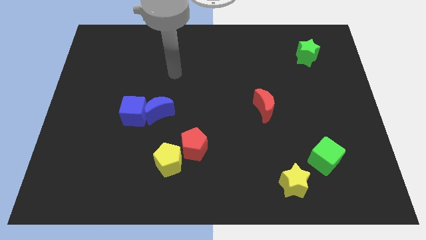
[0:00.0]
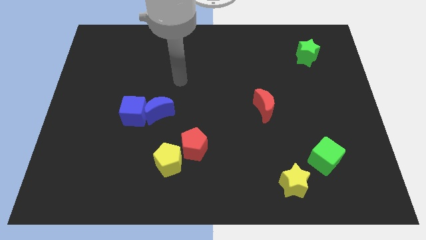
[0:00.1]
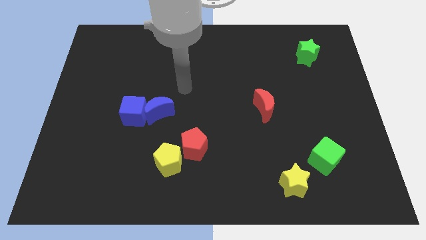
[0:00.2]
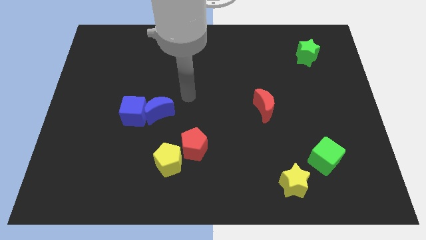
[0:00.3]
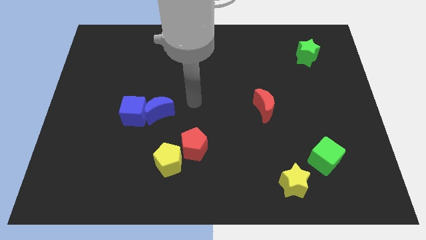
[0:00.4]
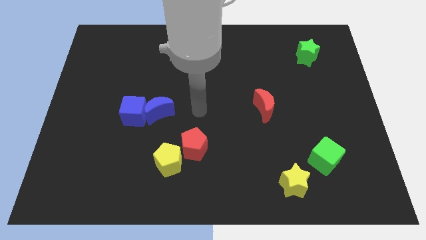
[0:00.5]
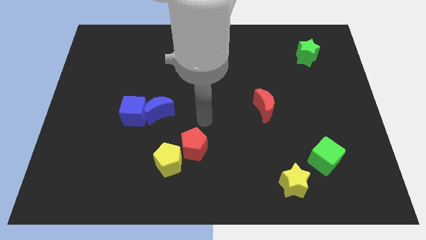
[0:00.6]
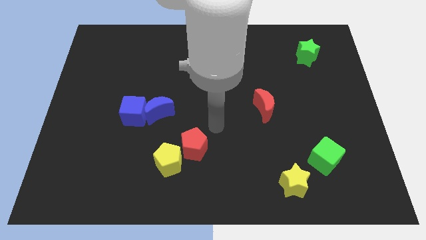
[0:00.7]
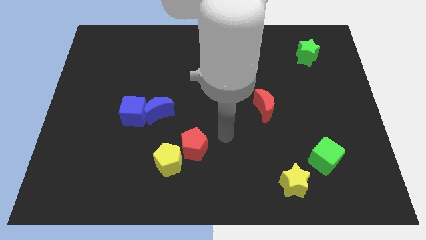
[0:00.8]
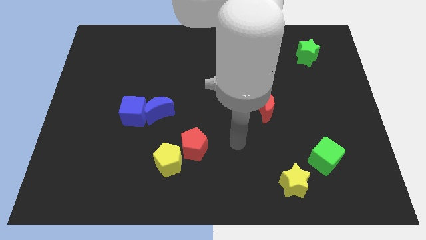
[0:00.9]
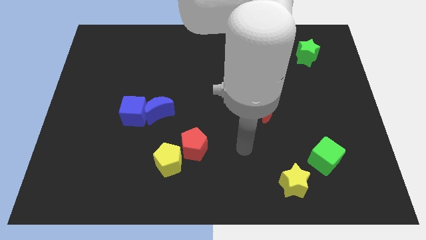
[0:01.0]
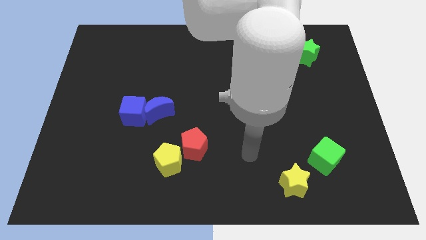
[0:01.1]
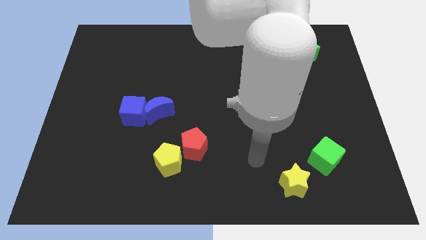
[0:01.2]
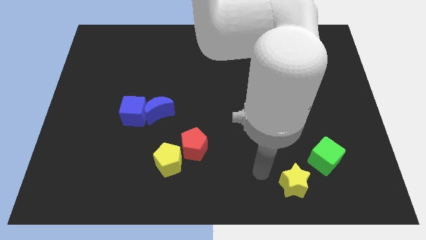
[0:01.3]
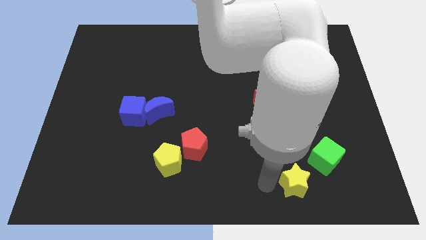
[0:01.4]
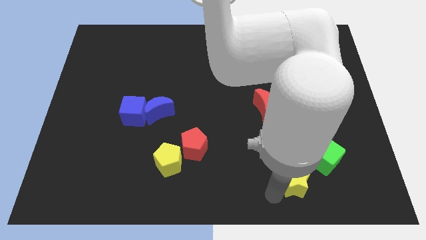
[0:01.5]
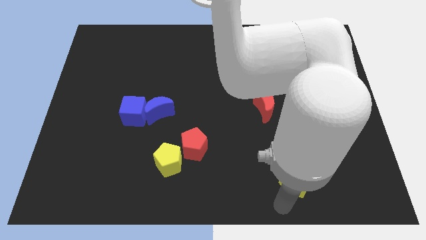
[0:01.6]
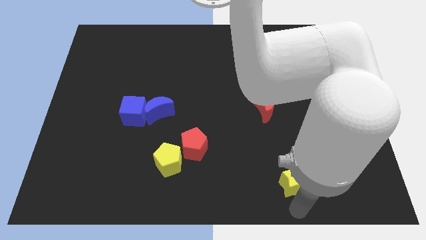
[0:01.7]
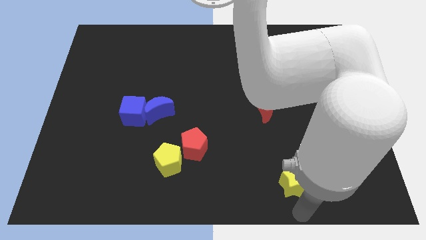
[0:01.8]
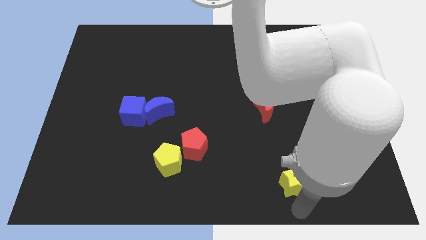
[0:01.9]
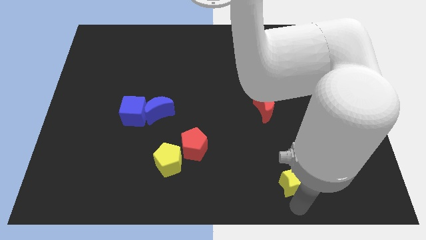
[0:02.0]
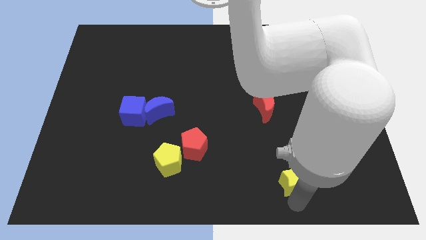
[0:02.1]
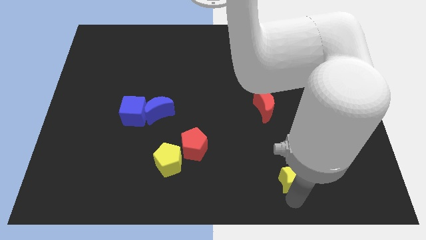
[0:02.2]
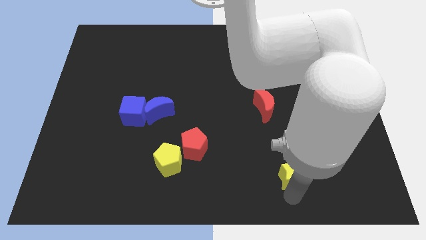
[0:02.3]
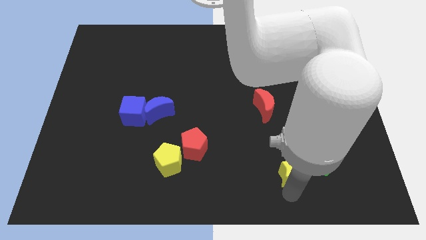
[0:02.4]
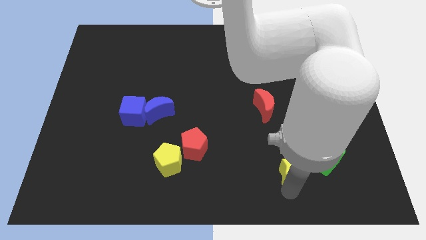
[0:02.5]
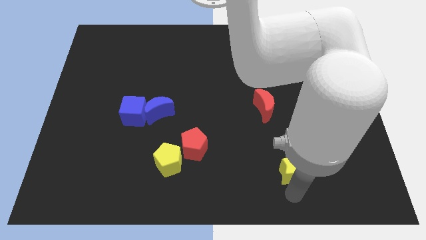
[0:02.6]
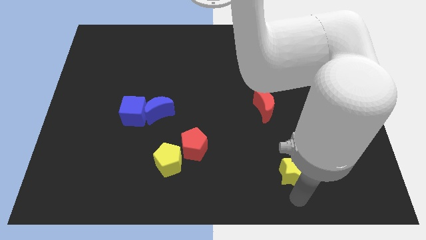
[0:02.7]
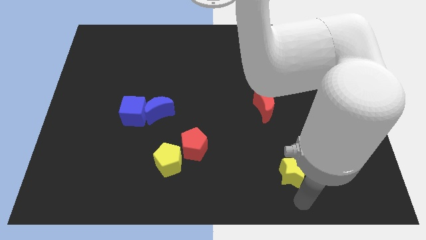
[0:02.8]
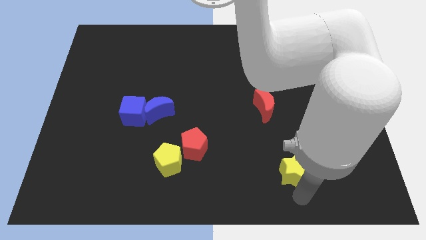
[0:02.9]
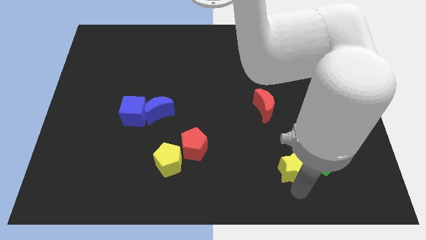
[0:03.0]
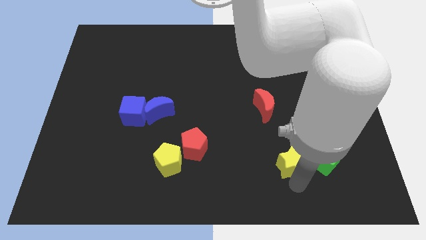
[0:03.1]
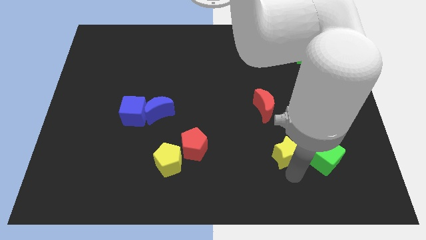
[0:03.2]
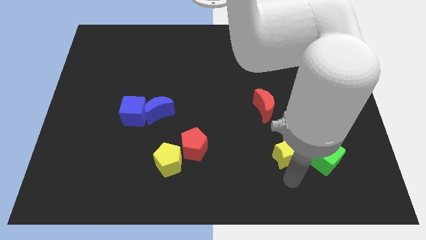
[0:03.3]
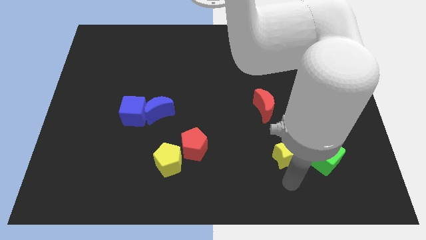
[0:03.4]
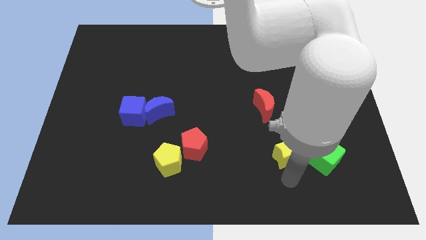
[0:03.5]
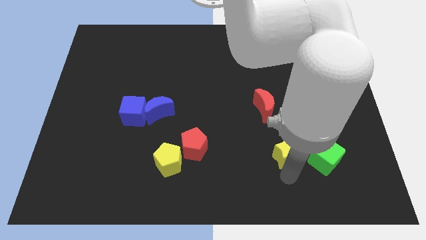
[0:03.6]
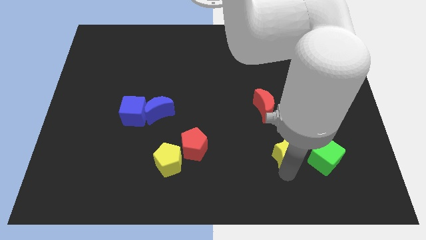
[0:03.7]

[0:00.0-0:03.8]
push the yellow star a bit up

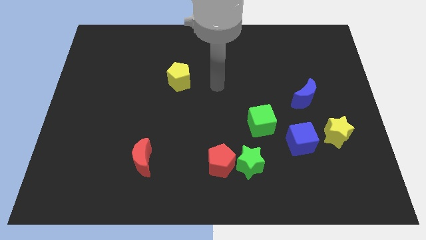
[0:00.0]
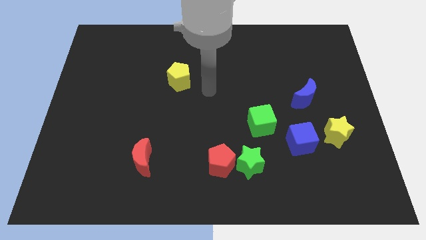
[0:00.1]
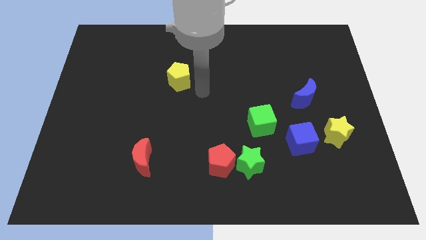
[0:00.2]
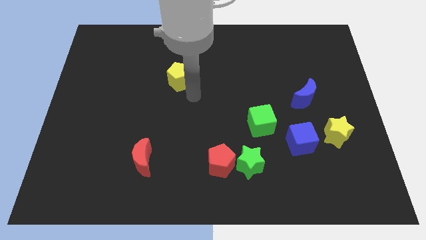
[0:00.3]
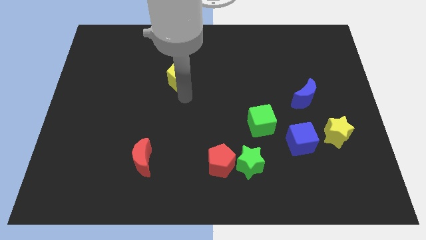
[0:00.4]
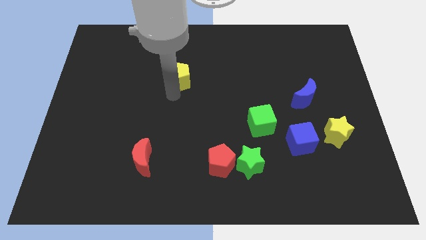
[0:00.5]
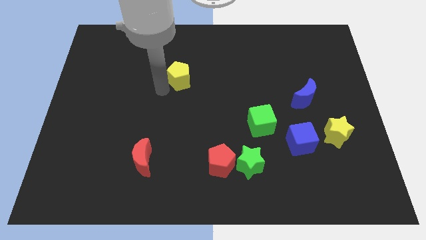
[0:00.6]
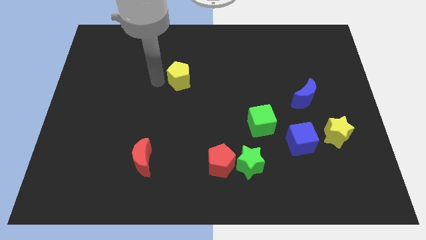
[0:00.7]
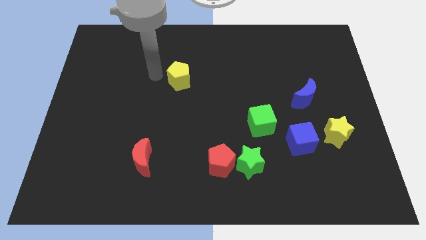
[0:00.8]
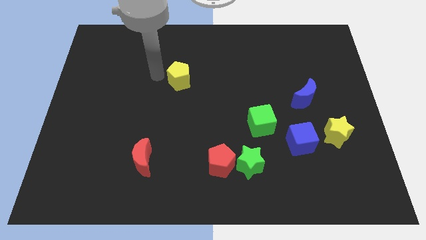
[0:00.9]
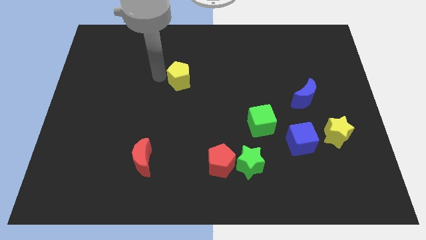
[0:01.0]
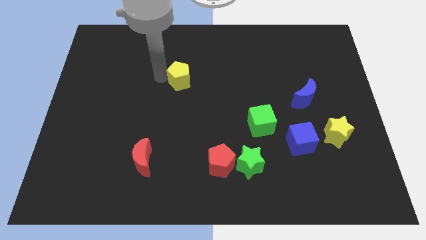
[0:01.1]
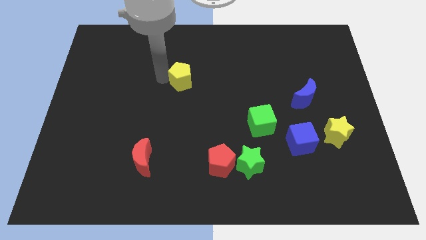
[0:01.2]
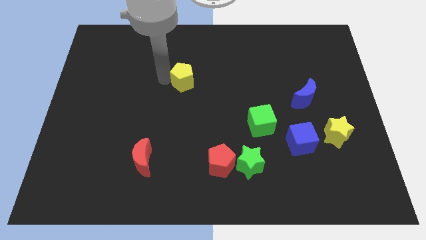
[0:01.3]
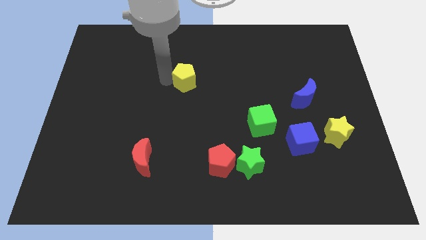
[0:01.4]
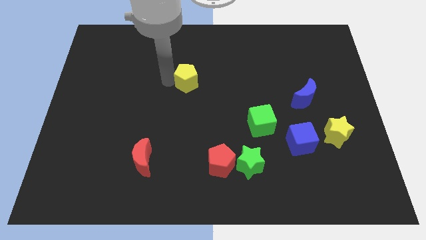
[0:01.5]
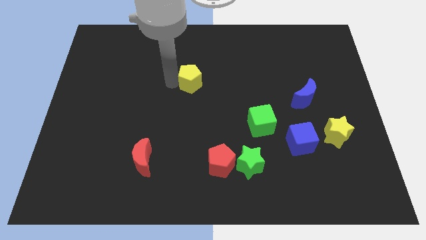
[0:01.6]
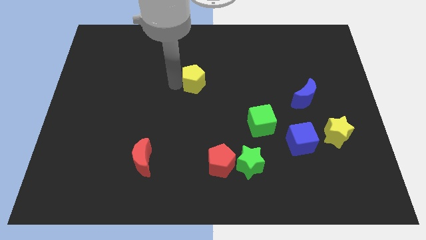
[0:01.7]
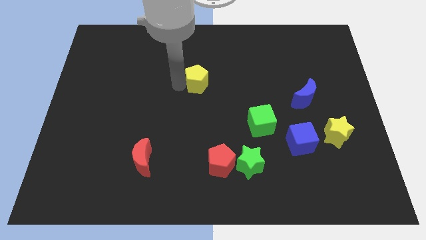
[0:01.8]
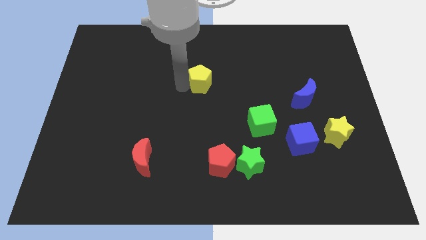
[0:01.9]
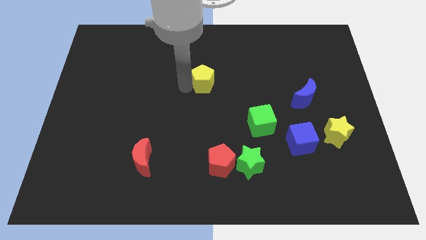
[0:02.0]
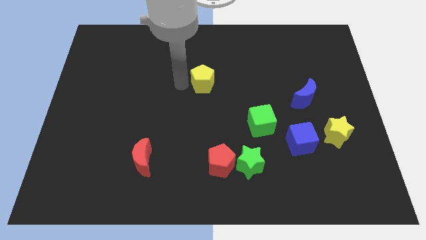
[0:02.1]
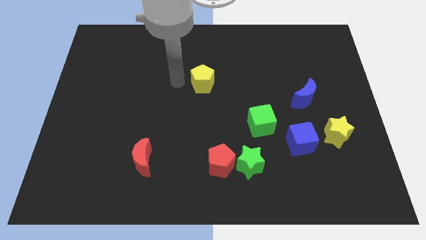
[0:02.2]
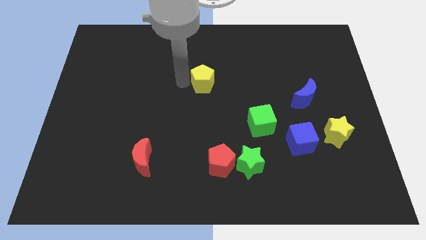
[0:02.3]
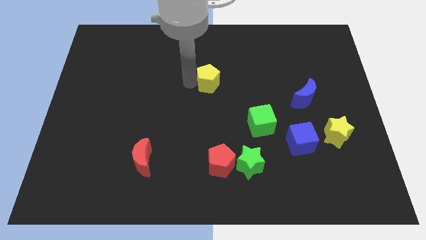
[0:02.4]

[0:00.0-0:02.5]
slightly slide the yellow pentagon right

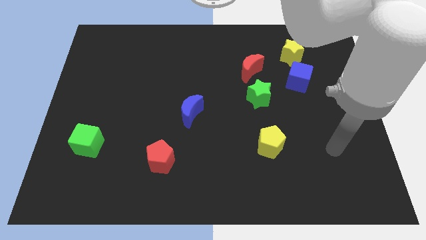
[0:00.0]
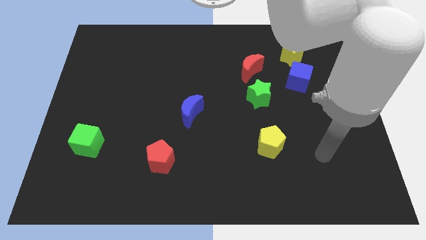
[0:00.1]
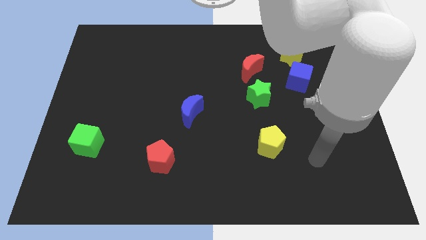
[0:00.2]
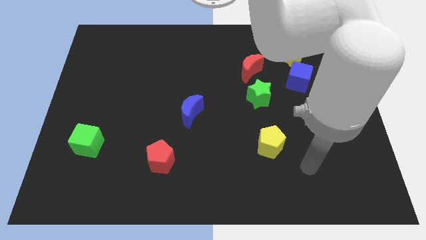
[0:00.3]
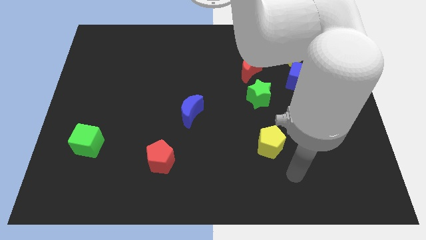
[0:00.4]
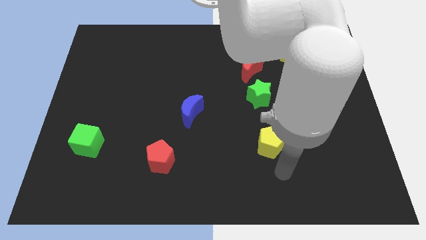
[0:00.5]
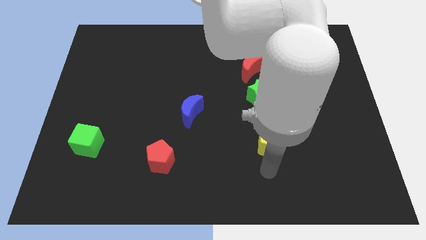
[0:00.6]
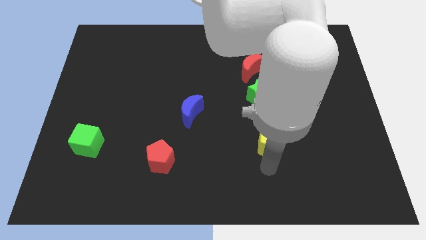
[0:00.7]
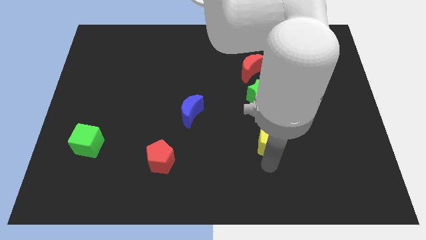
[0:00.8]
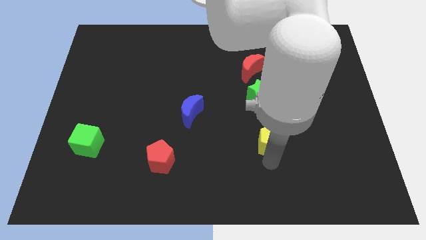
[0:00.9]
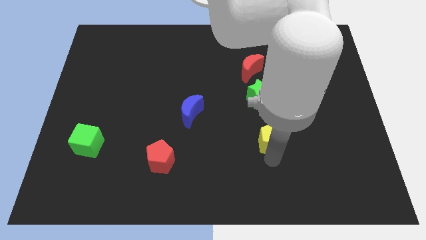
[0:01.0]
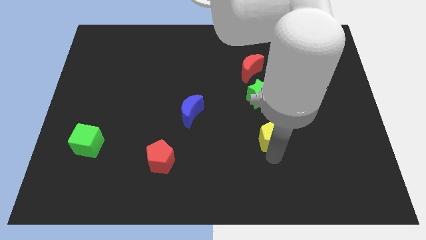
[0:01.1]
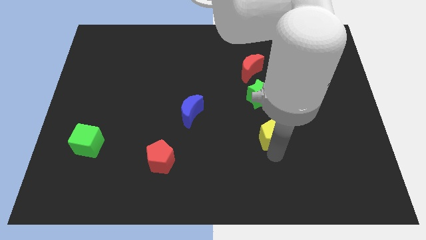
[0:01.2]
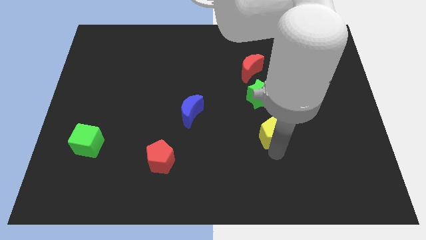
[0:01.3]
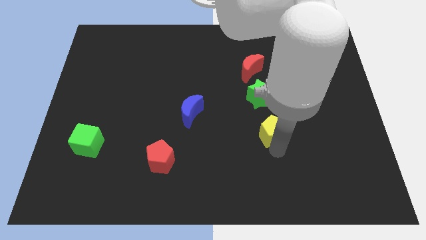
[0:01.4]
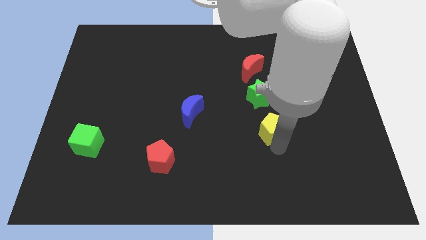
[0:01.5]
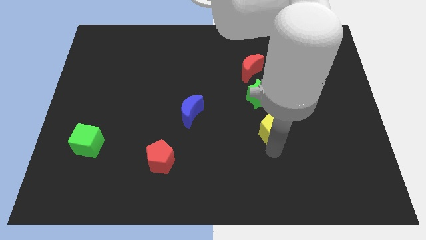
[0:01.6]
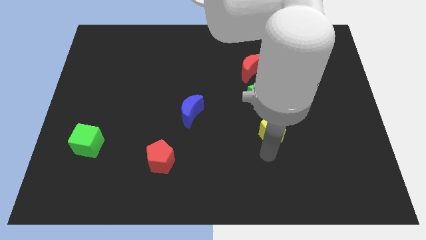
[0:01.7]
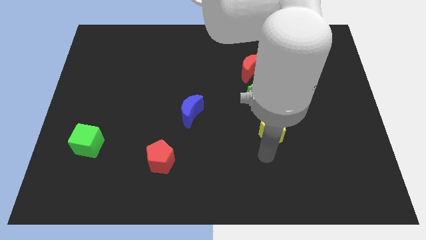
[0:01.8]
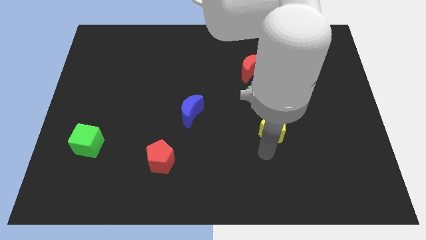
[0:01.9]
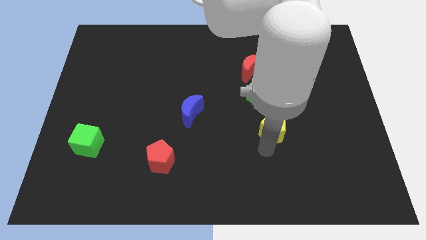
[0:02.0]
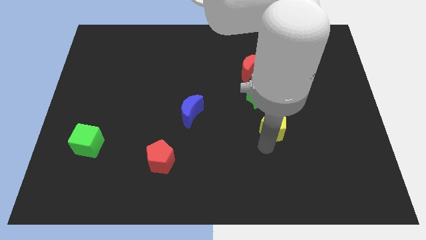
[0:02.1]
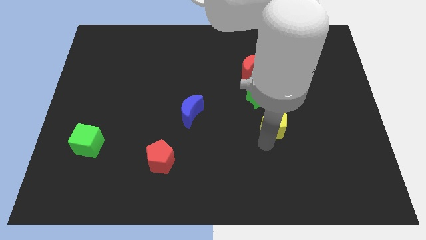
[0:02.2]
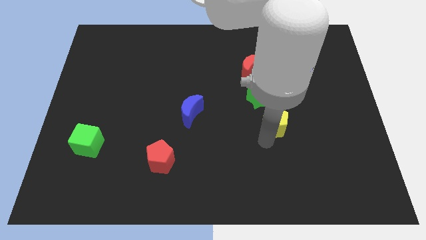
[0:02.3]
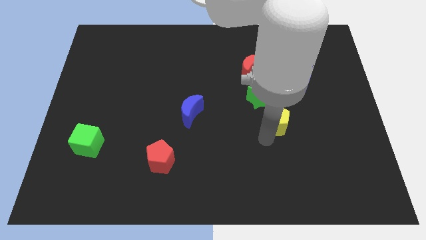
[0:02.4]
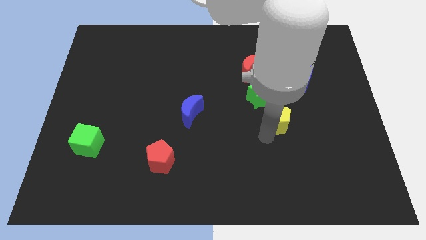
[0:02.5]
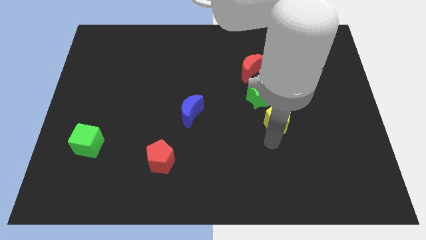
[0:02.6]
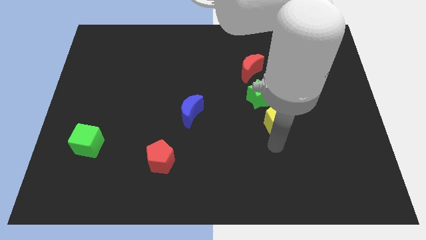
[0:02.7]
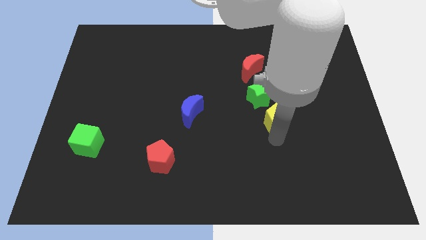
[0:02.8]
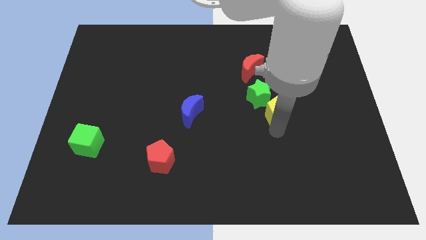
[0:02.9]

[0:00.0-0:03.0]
slightly move the yellow pentagon upwards
